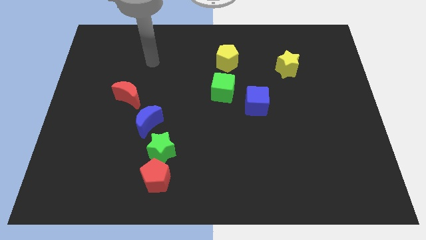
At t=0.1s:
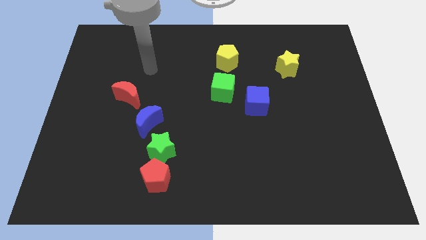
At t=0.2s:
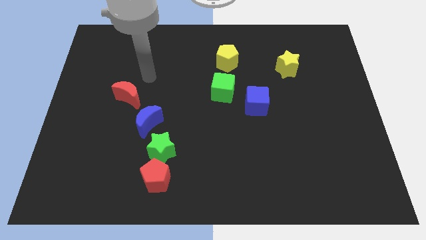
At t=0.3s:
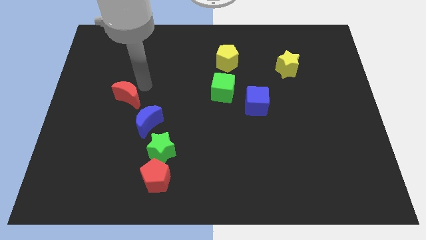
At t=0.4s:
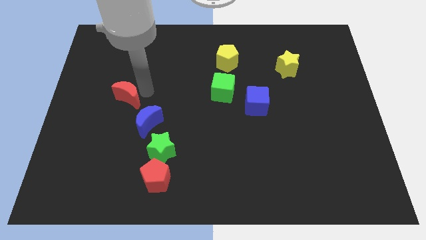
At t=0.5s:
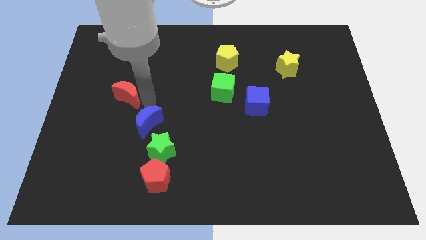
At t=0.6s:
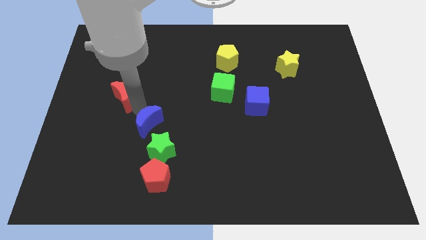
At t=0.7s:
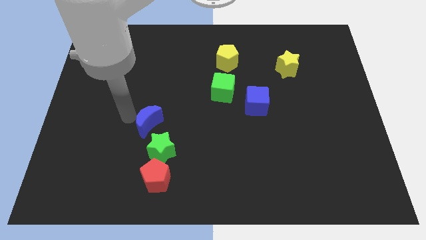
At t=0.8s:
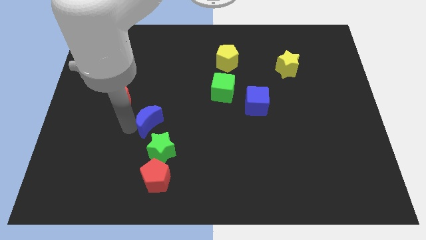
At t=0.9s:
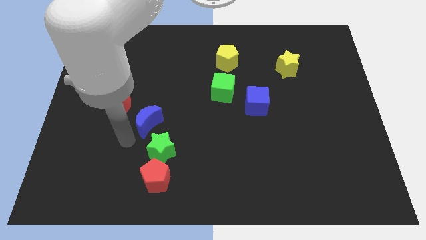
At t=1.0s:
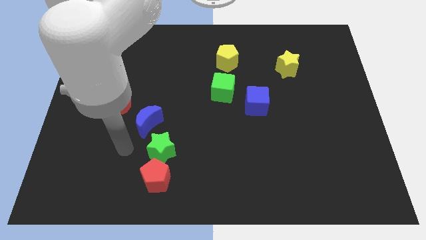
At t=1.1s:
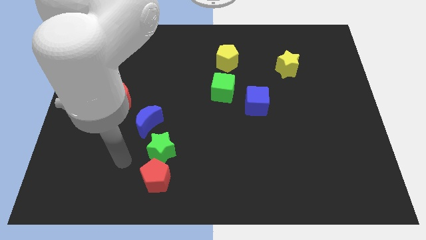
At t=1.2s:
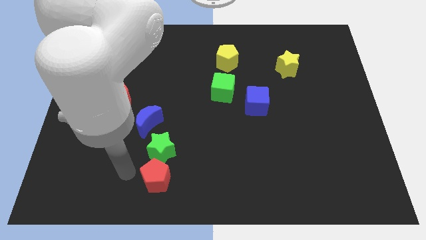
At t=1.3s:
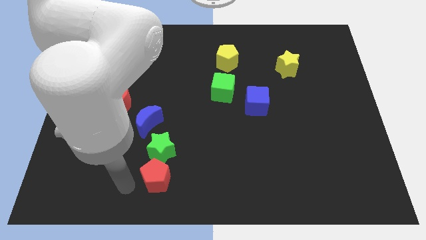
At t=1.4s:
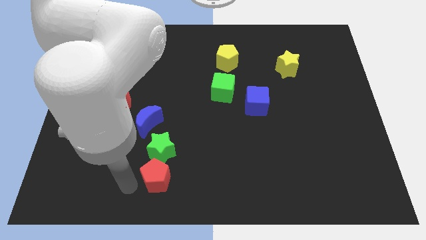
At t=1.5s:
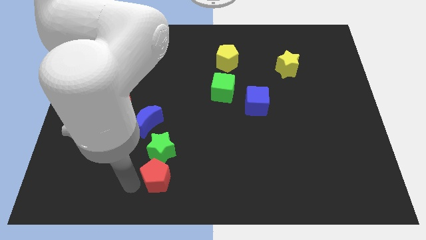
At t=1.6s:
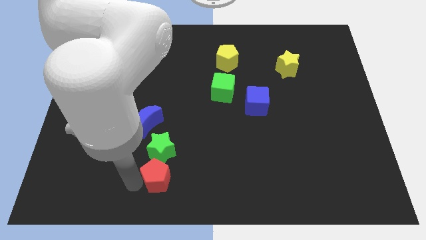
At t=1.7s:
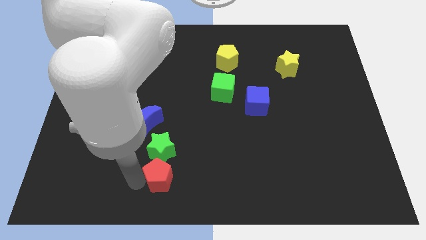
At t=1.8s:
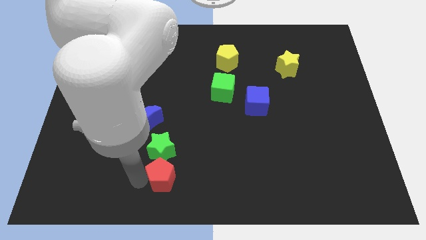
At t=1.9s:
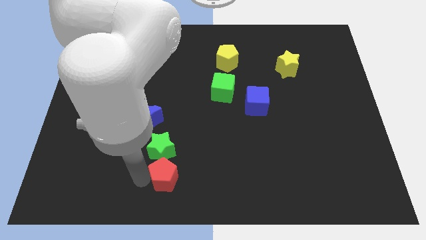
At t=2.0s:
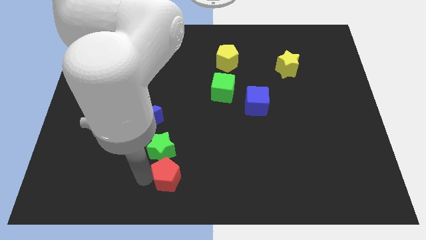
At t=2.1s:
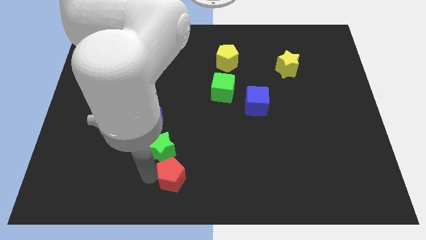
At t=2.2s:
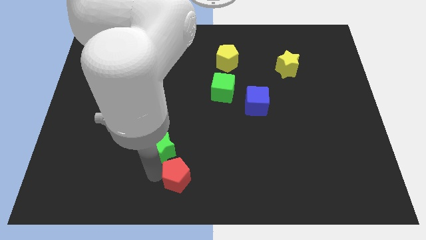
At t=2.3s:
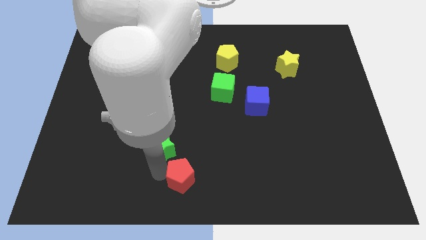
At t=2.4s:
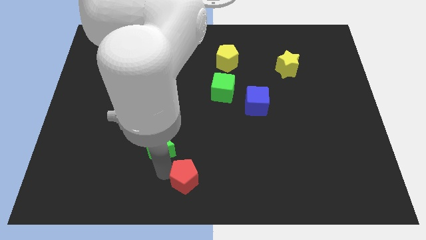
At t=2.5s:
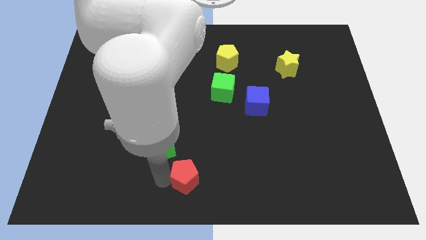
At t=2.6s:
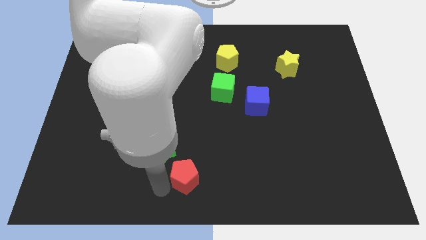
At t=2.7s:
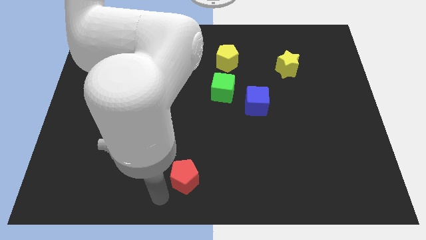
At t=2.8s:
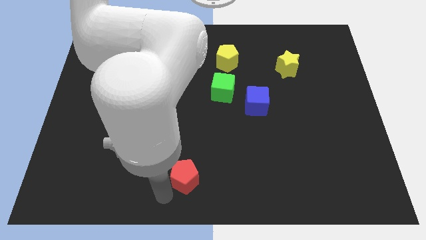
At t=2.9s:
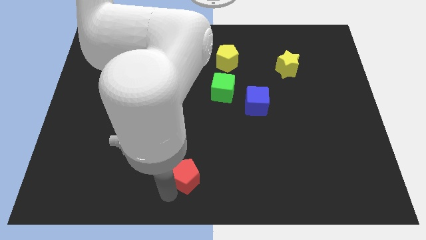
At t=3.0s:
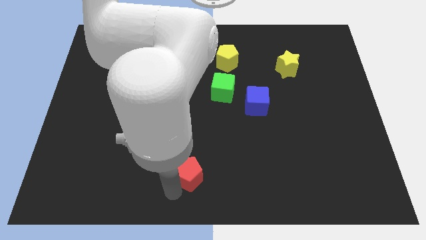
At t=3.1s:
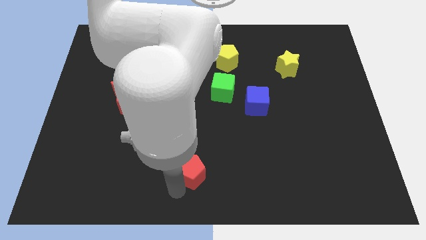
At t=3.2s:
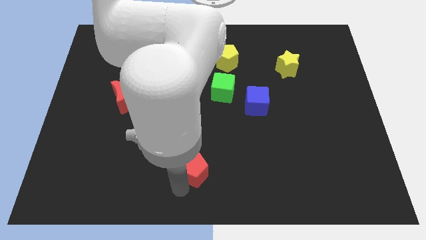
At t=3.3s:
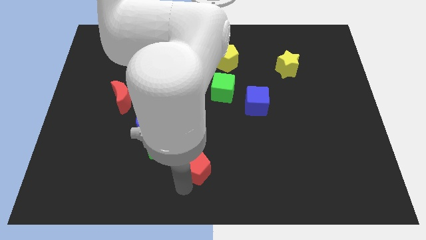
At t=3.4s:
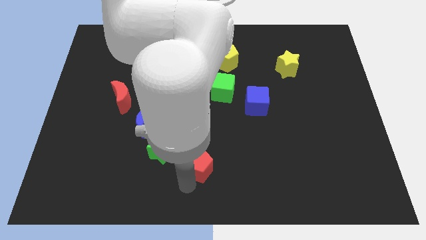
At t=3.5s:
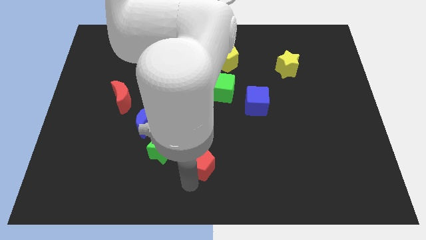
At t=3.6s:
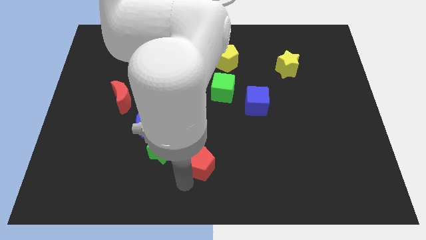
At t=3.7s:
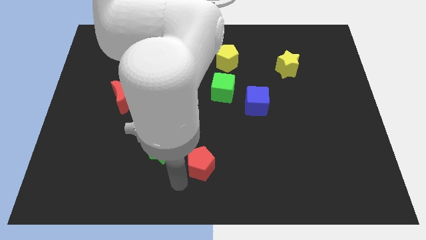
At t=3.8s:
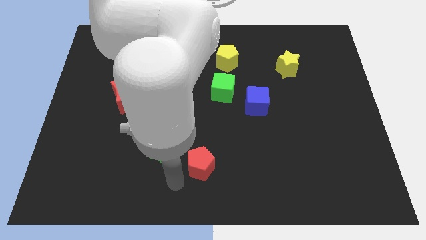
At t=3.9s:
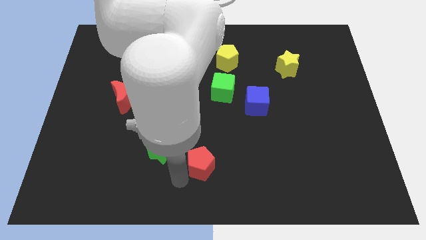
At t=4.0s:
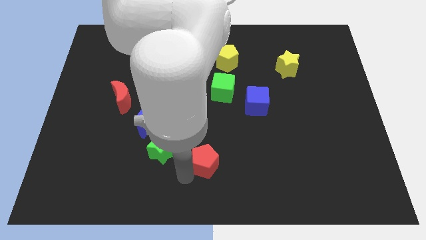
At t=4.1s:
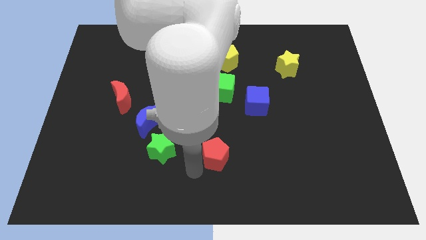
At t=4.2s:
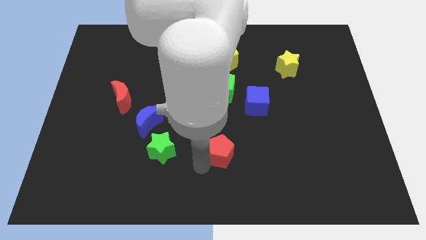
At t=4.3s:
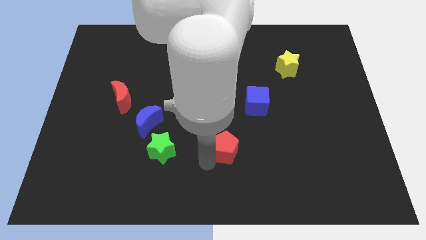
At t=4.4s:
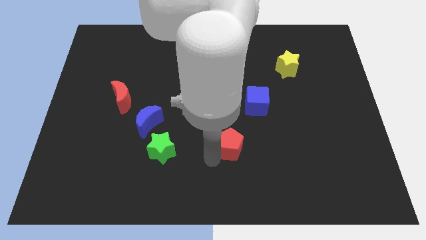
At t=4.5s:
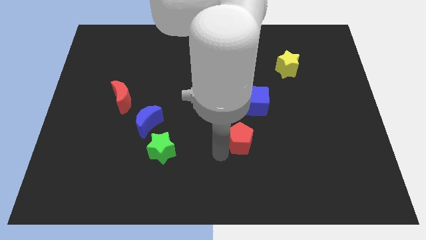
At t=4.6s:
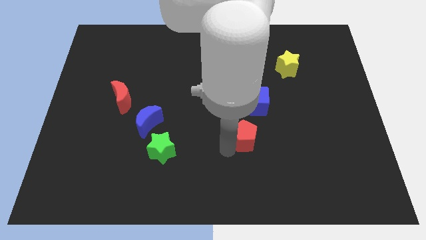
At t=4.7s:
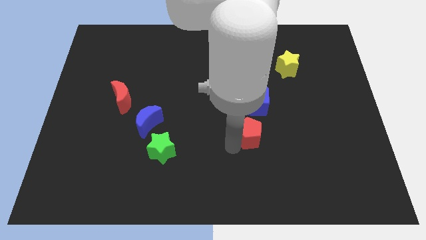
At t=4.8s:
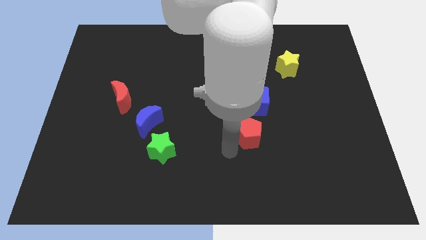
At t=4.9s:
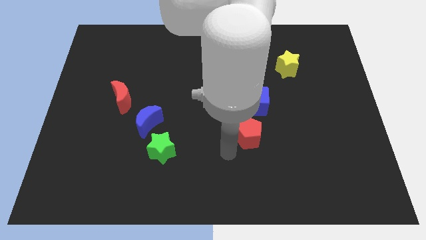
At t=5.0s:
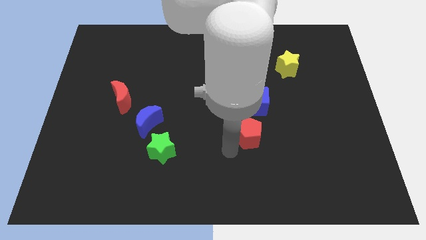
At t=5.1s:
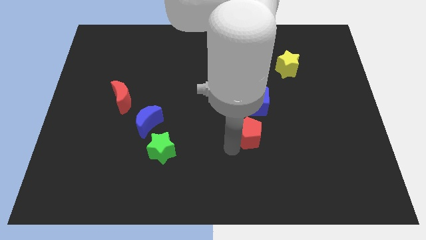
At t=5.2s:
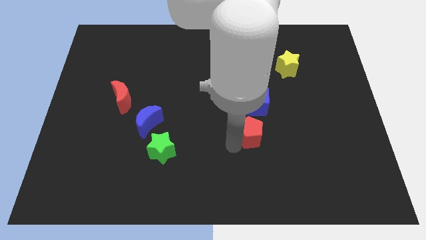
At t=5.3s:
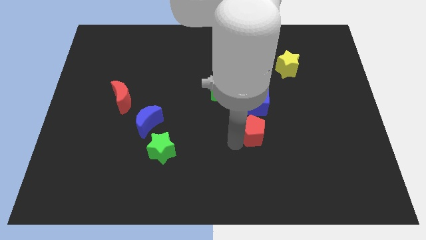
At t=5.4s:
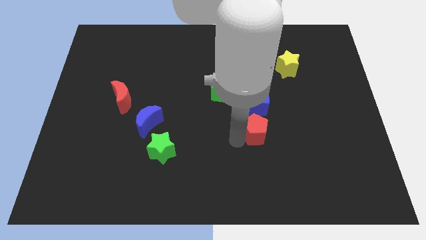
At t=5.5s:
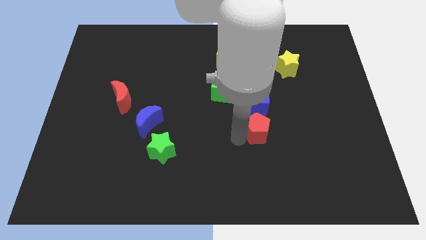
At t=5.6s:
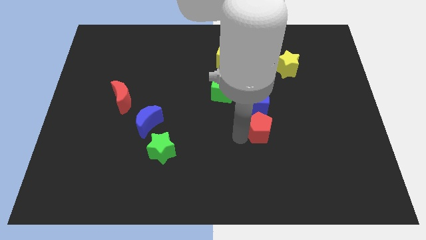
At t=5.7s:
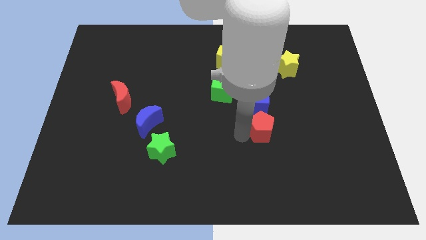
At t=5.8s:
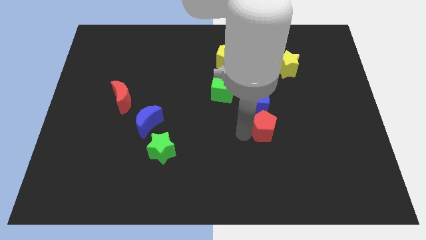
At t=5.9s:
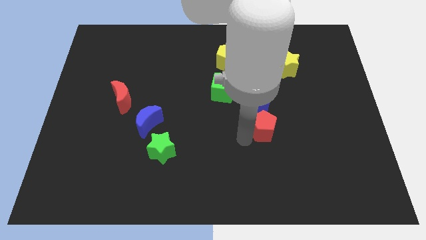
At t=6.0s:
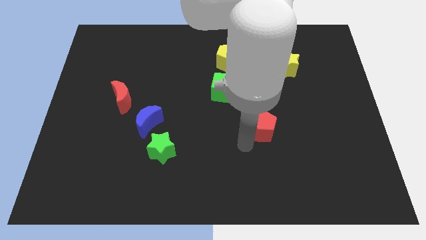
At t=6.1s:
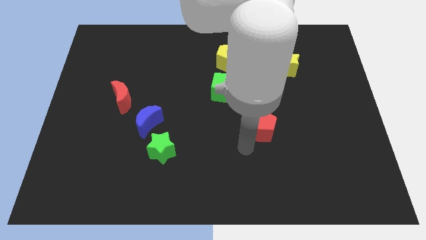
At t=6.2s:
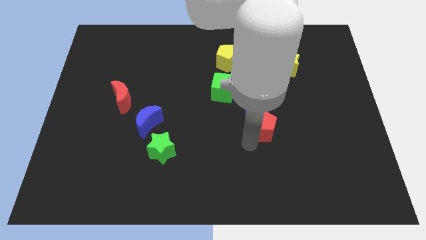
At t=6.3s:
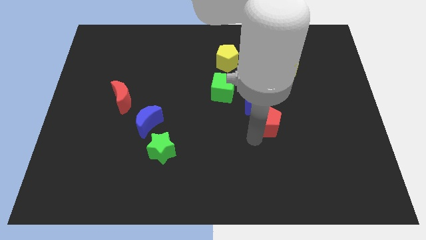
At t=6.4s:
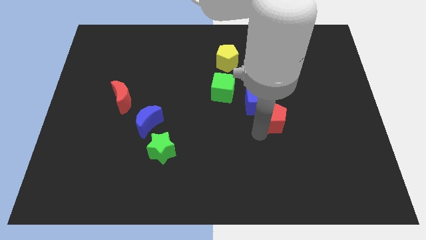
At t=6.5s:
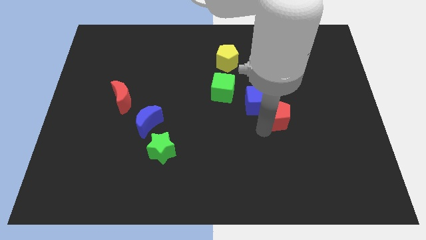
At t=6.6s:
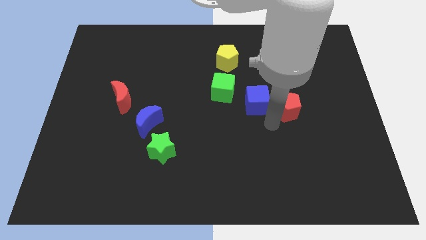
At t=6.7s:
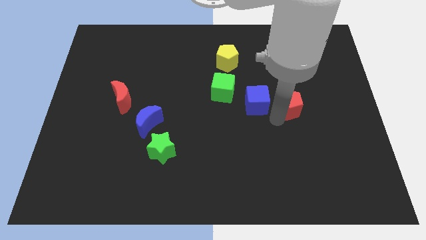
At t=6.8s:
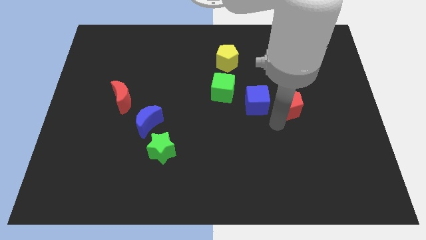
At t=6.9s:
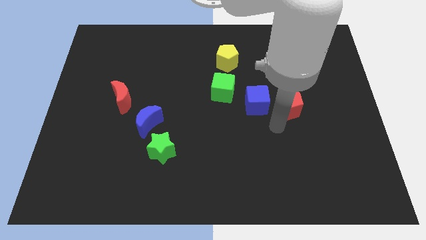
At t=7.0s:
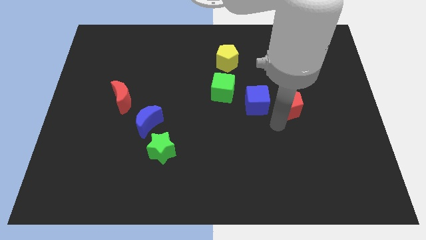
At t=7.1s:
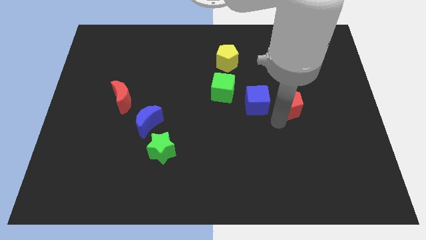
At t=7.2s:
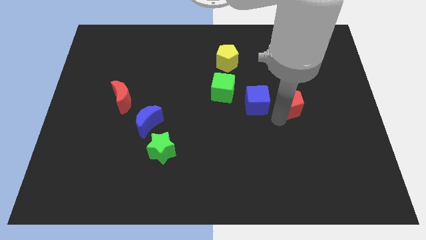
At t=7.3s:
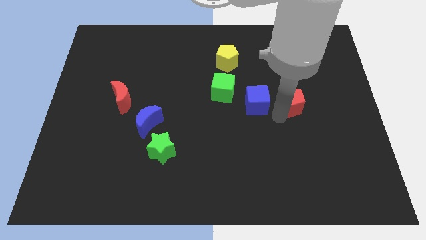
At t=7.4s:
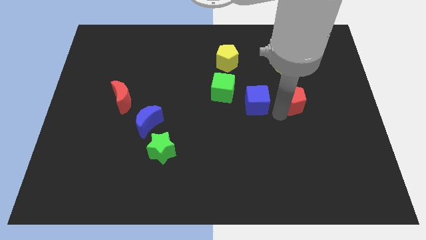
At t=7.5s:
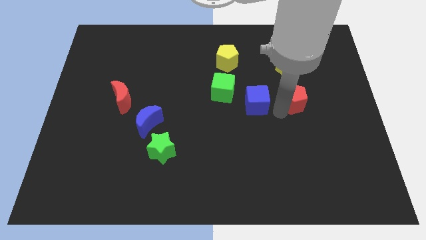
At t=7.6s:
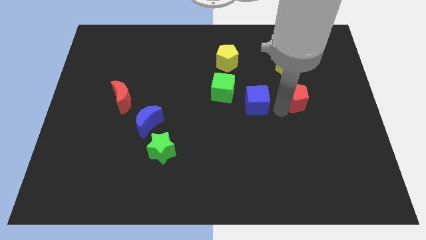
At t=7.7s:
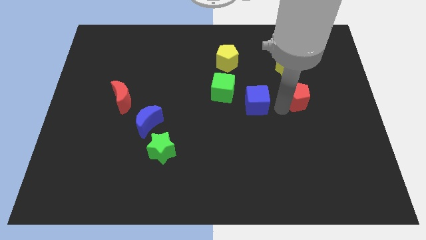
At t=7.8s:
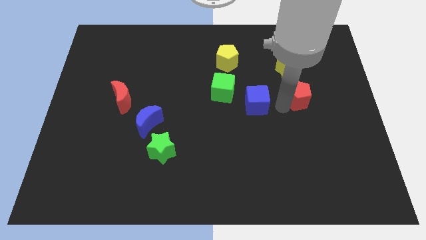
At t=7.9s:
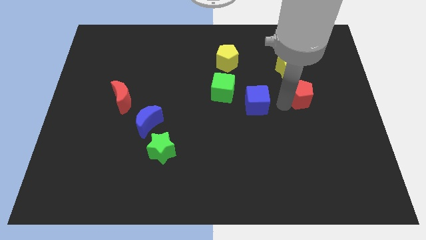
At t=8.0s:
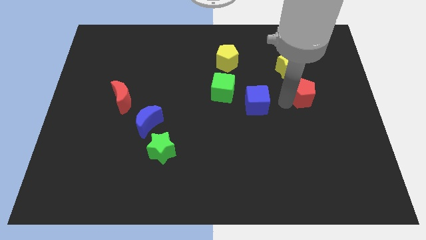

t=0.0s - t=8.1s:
move the red pentagon to the bottom right side of the yellow star
